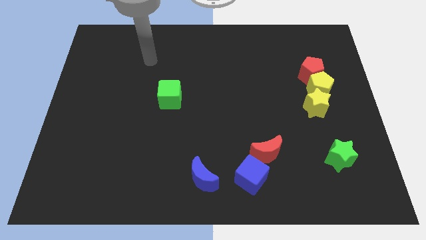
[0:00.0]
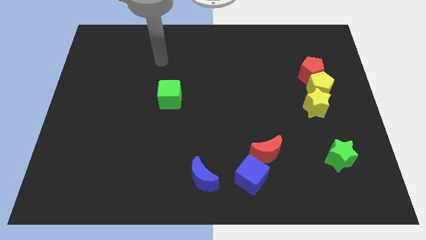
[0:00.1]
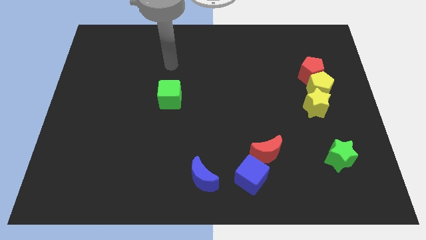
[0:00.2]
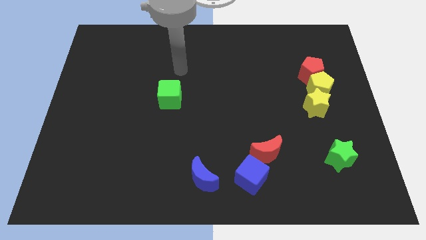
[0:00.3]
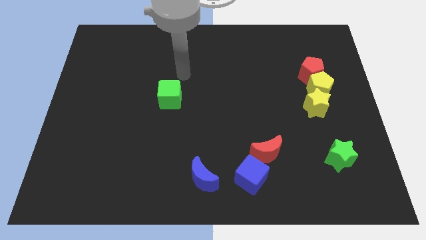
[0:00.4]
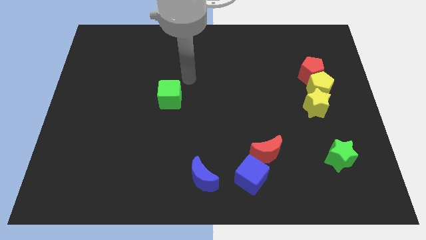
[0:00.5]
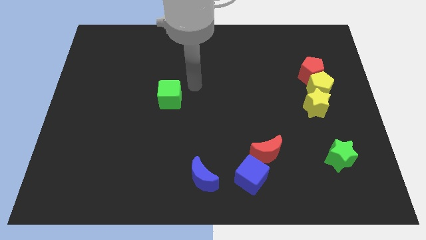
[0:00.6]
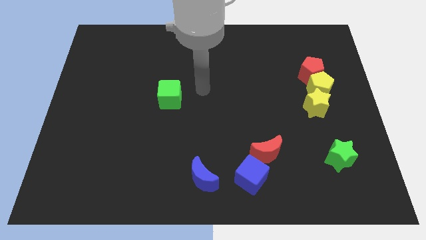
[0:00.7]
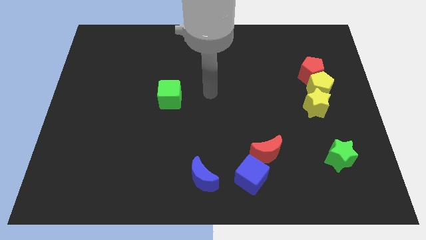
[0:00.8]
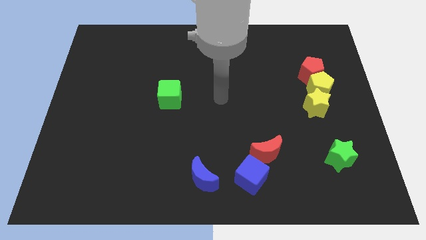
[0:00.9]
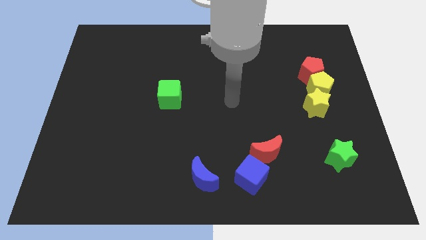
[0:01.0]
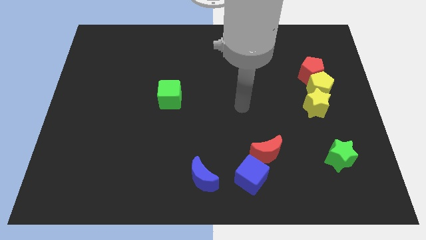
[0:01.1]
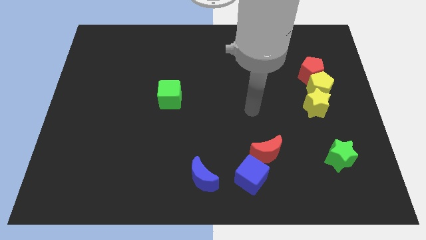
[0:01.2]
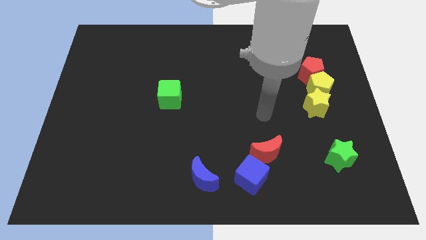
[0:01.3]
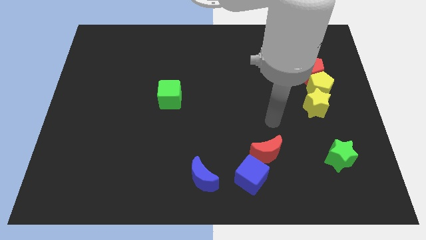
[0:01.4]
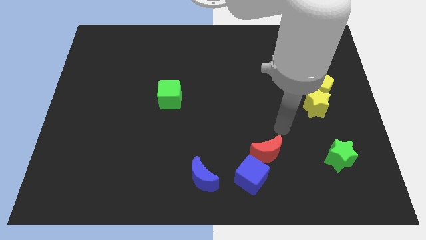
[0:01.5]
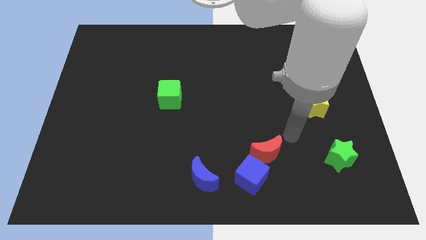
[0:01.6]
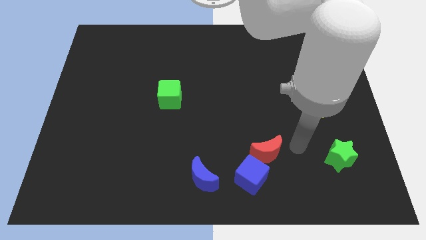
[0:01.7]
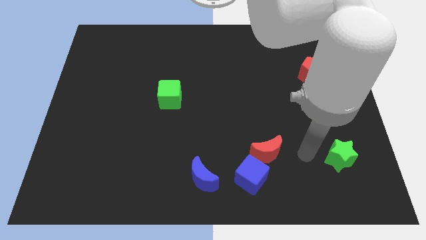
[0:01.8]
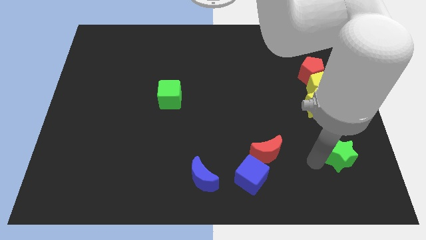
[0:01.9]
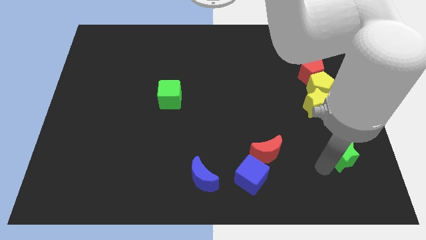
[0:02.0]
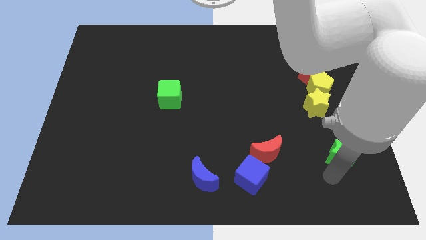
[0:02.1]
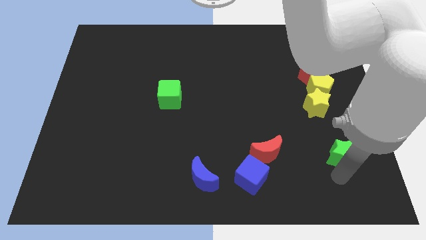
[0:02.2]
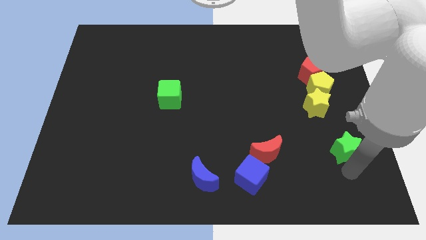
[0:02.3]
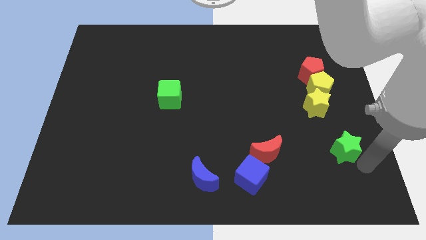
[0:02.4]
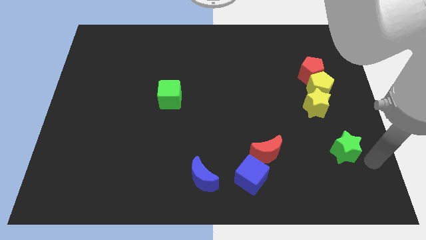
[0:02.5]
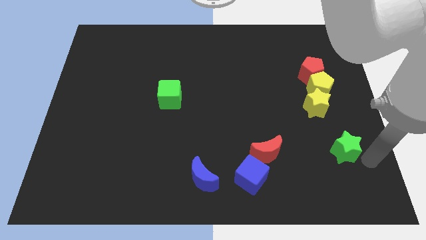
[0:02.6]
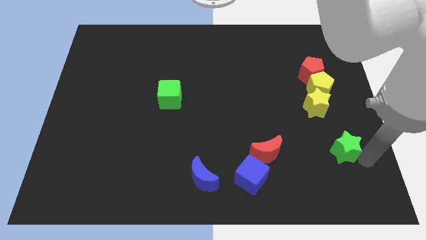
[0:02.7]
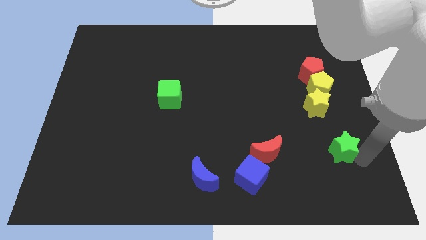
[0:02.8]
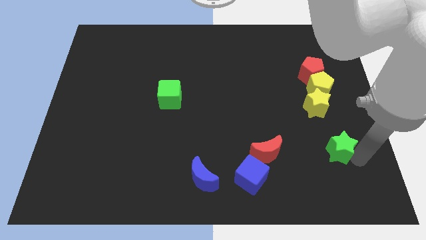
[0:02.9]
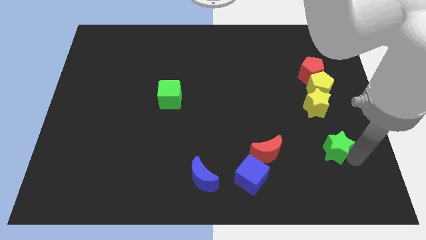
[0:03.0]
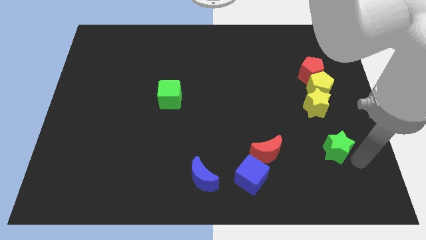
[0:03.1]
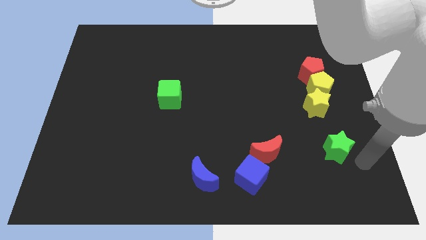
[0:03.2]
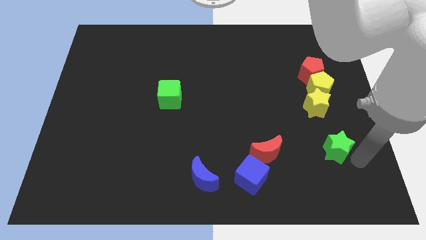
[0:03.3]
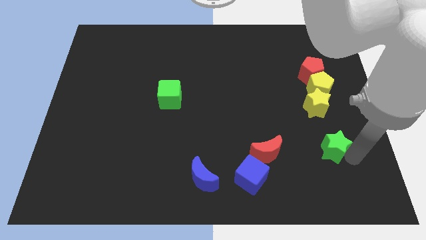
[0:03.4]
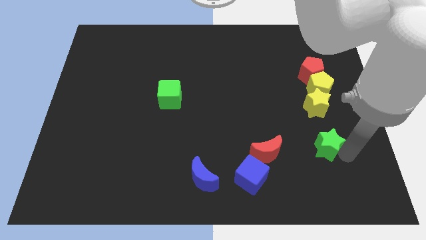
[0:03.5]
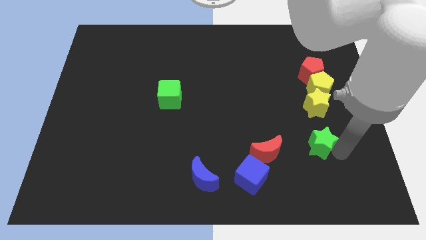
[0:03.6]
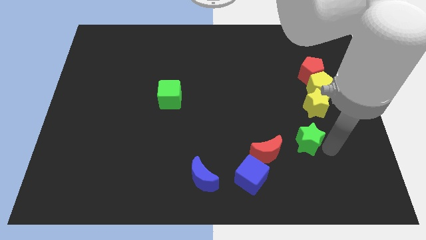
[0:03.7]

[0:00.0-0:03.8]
slide the green star up and to the left diagonally a little

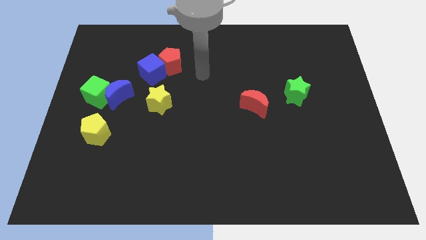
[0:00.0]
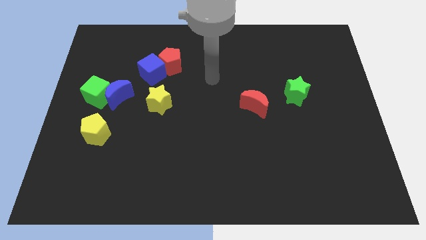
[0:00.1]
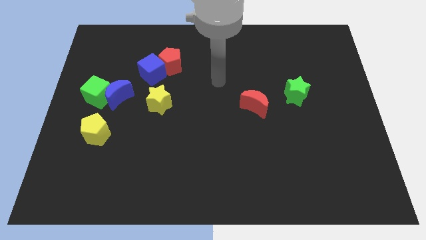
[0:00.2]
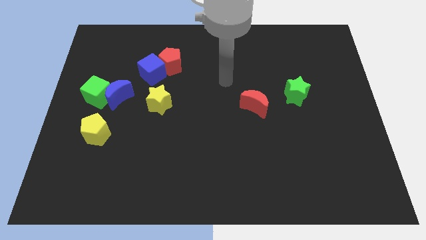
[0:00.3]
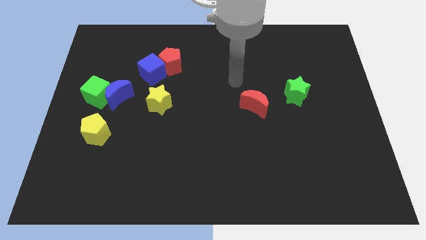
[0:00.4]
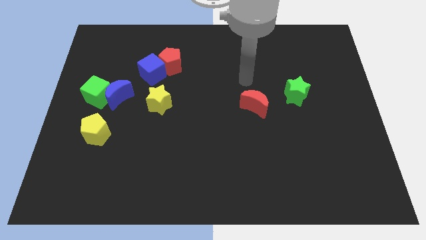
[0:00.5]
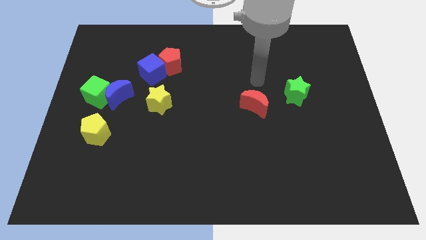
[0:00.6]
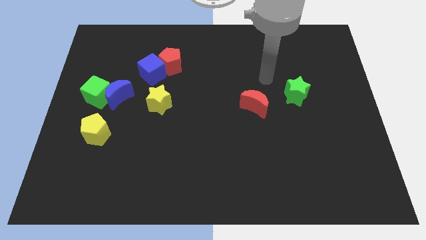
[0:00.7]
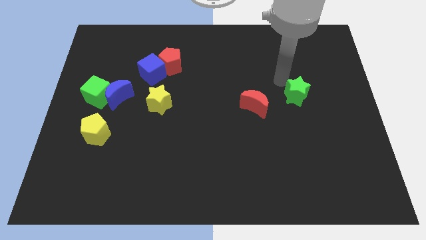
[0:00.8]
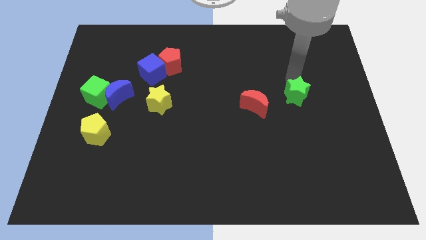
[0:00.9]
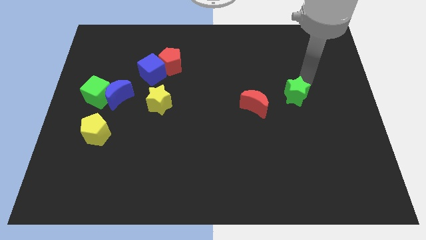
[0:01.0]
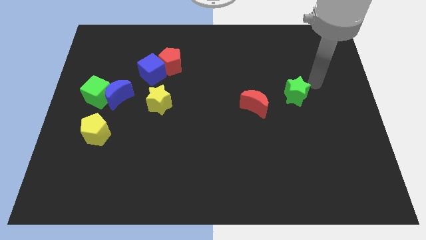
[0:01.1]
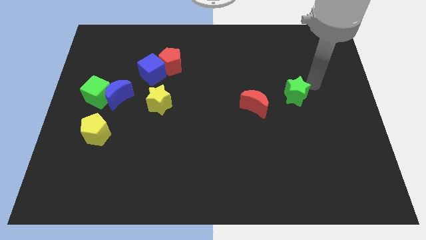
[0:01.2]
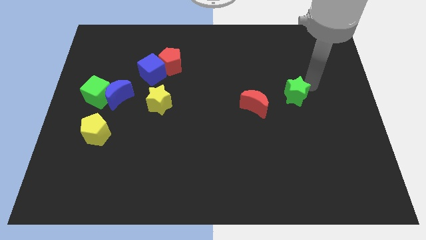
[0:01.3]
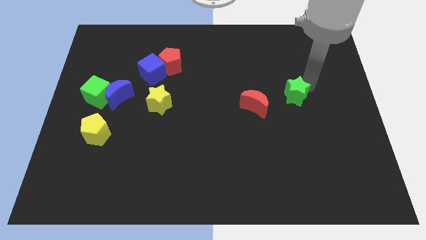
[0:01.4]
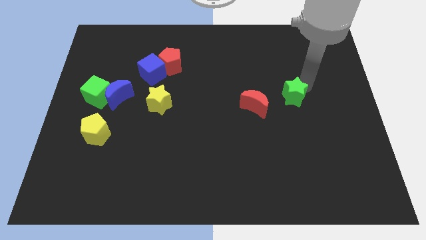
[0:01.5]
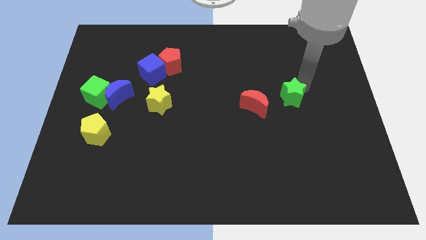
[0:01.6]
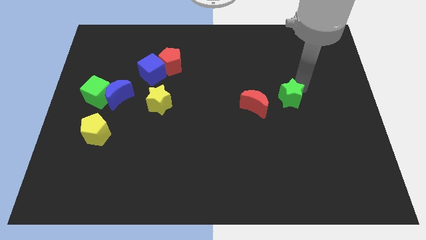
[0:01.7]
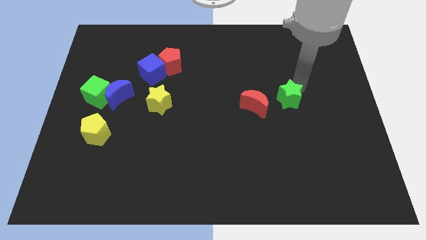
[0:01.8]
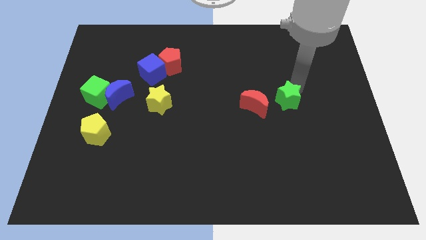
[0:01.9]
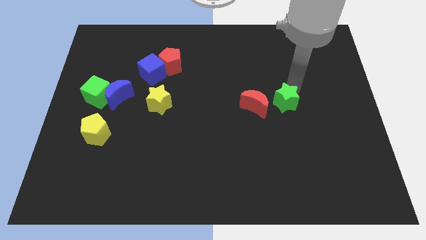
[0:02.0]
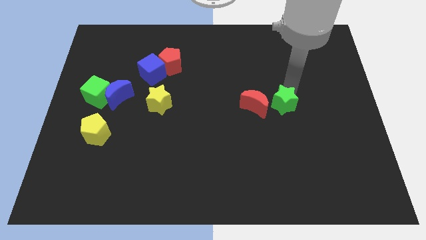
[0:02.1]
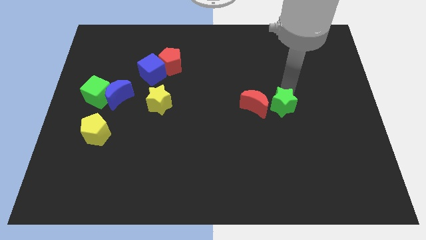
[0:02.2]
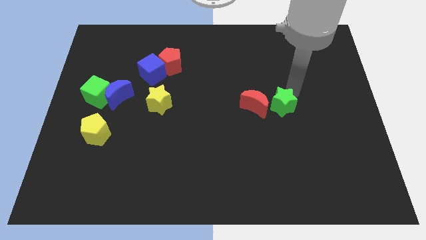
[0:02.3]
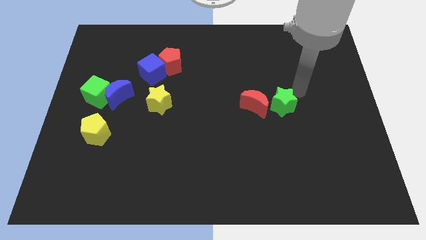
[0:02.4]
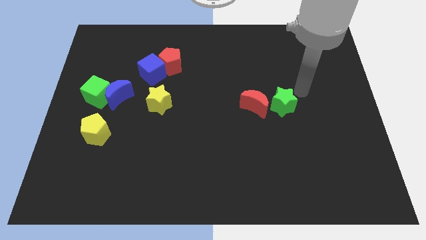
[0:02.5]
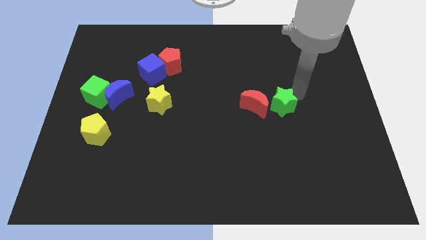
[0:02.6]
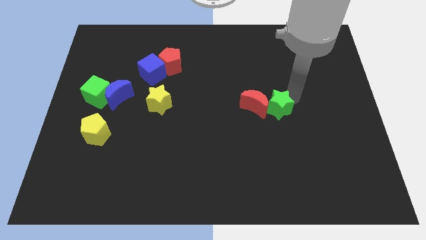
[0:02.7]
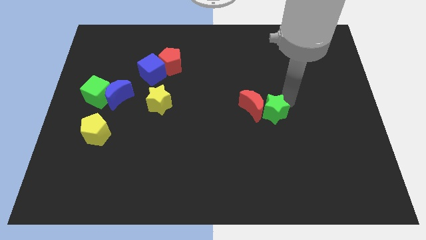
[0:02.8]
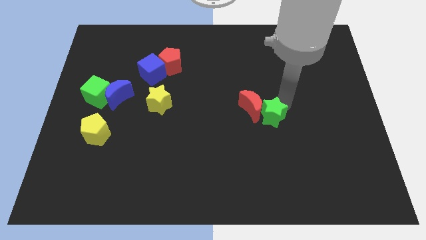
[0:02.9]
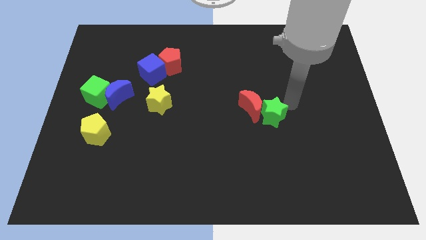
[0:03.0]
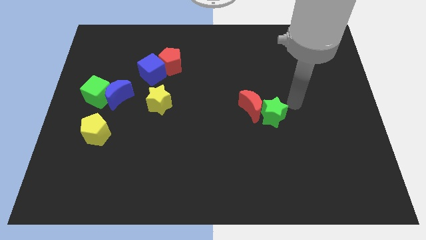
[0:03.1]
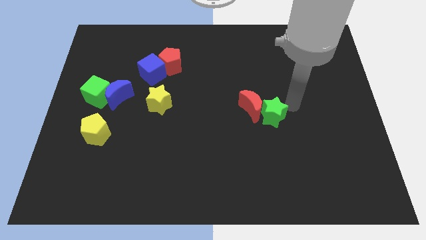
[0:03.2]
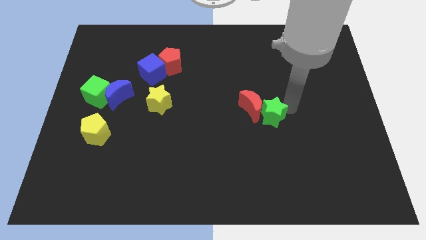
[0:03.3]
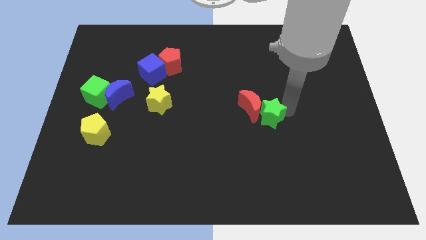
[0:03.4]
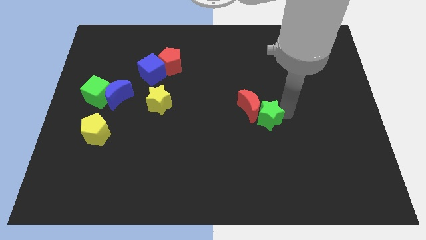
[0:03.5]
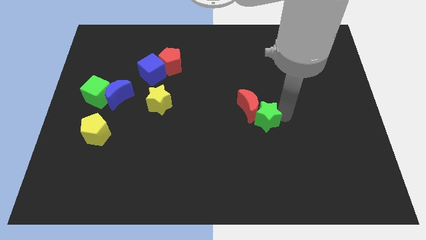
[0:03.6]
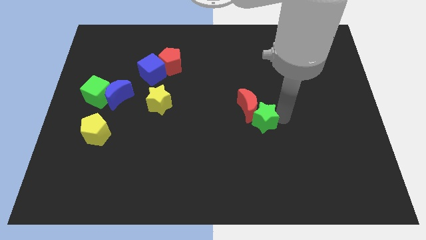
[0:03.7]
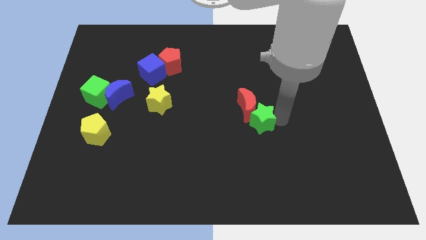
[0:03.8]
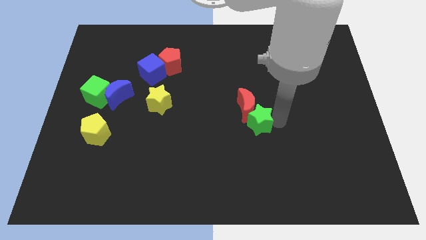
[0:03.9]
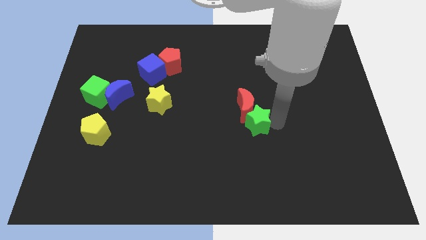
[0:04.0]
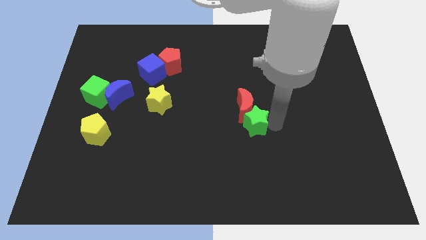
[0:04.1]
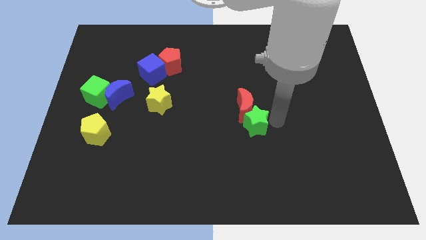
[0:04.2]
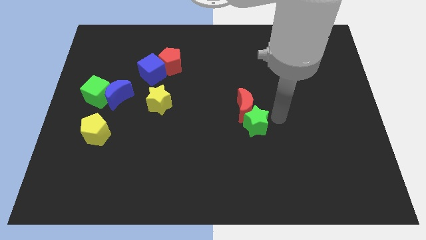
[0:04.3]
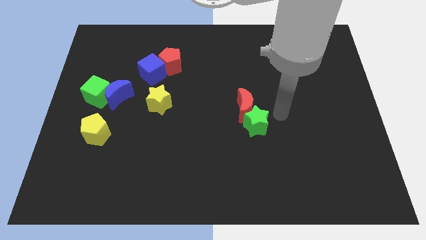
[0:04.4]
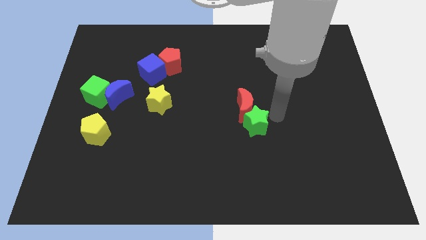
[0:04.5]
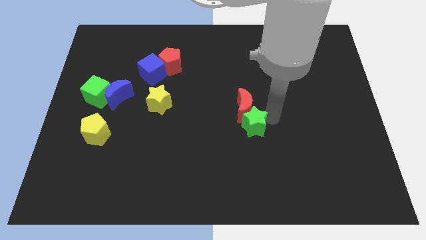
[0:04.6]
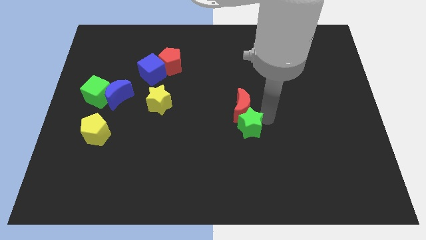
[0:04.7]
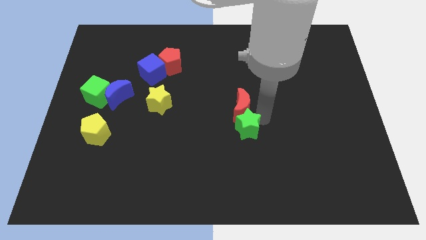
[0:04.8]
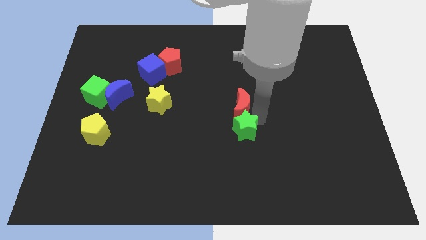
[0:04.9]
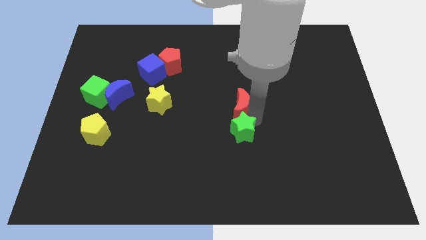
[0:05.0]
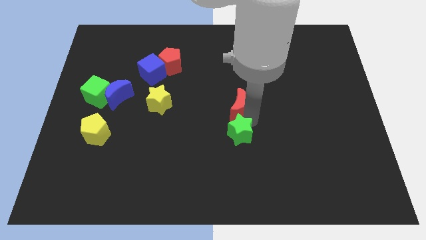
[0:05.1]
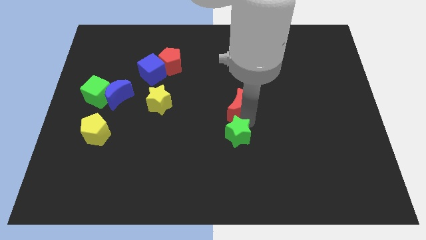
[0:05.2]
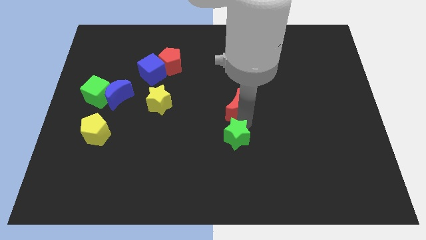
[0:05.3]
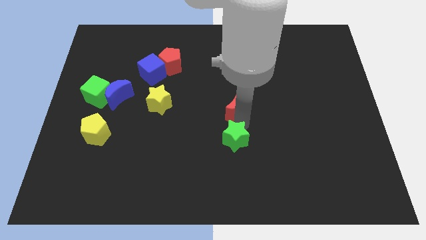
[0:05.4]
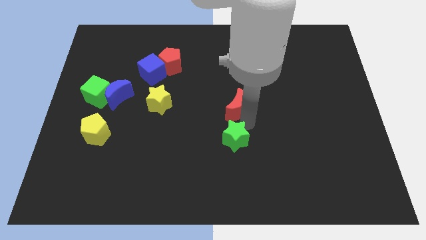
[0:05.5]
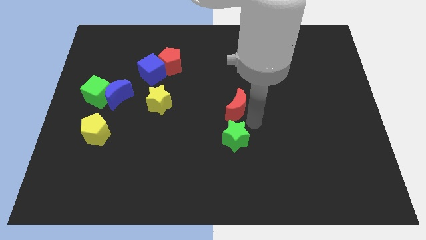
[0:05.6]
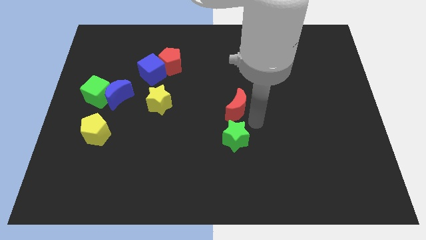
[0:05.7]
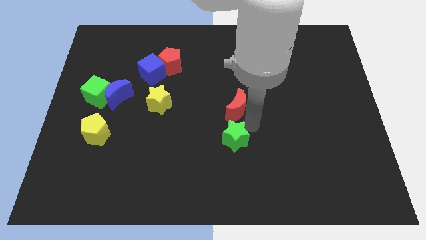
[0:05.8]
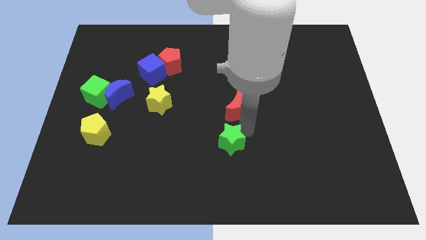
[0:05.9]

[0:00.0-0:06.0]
move the green star diagonally down and to the left
